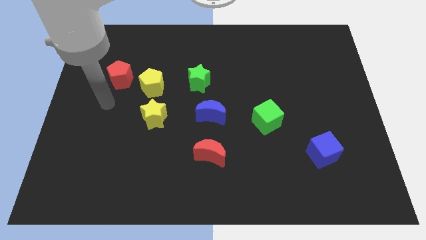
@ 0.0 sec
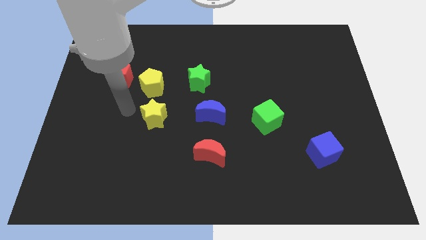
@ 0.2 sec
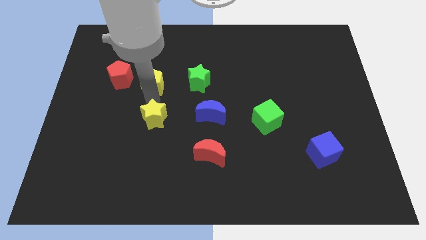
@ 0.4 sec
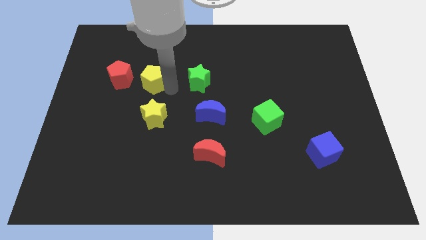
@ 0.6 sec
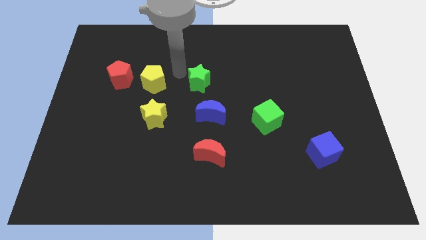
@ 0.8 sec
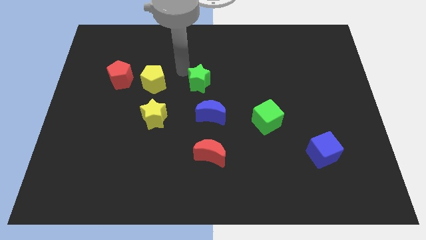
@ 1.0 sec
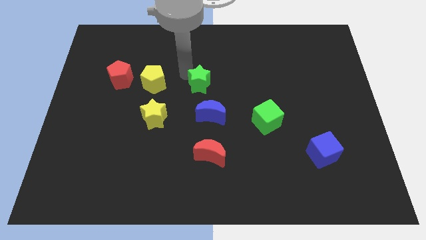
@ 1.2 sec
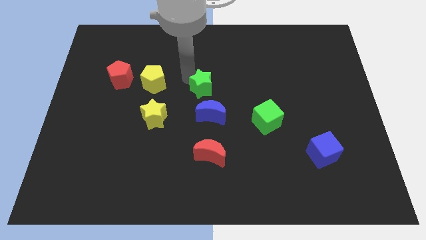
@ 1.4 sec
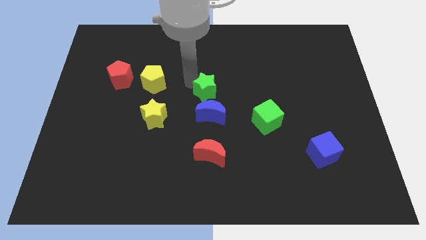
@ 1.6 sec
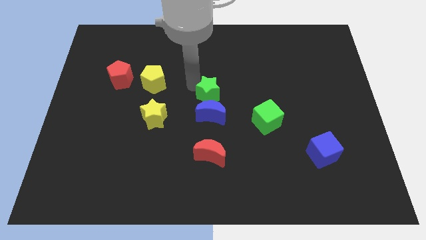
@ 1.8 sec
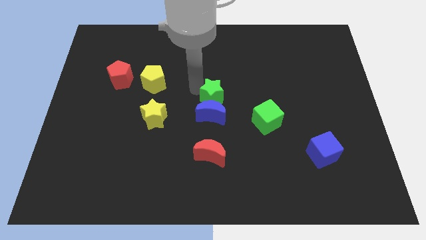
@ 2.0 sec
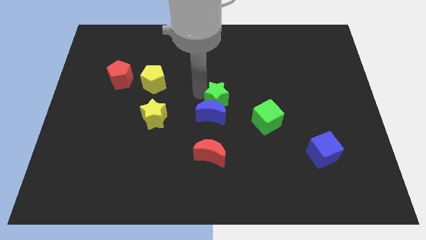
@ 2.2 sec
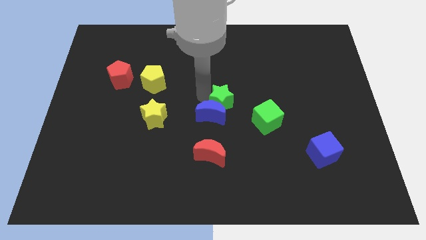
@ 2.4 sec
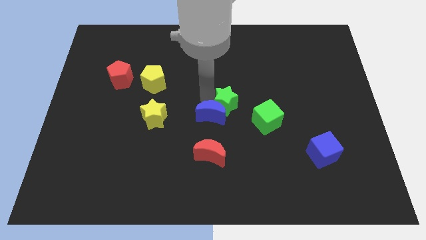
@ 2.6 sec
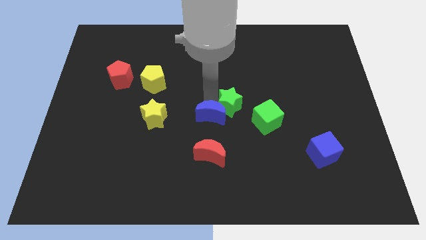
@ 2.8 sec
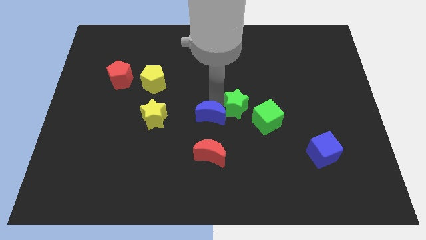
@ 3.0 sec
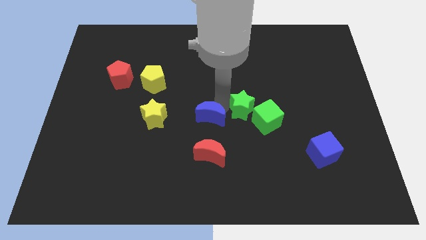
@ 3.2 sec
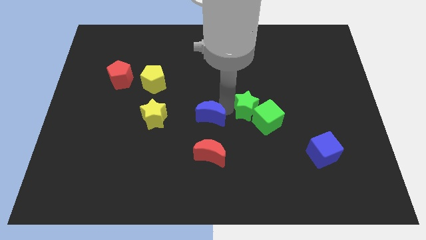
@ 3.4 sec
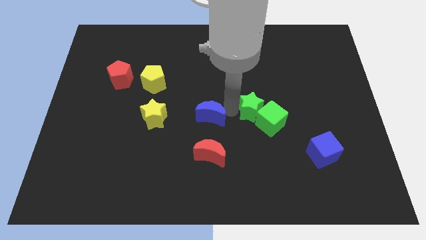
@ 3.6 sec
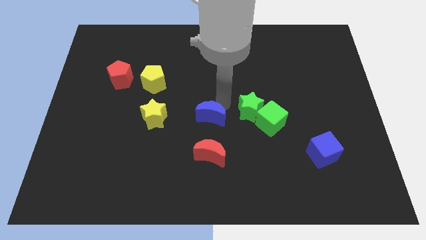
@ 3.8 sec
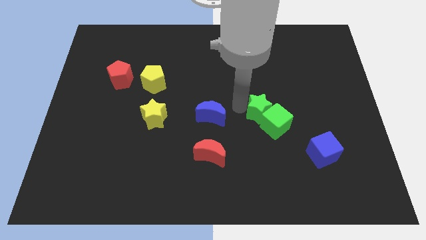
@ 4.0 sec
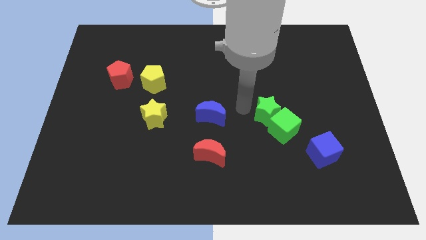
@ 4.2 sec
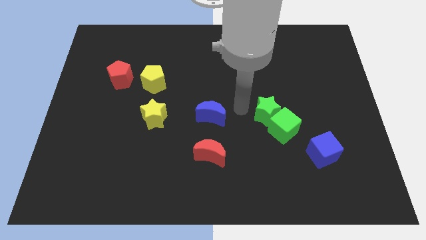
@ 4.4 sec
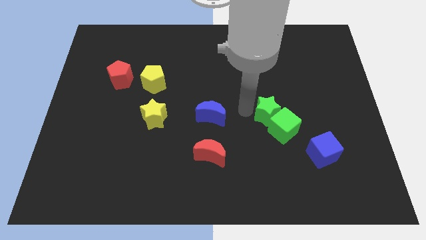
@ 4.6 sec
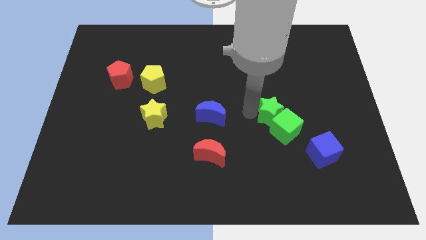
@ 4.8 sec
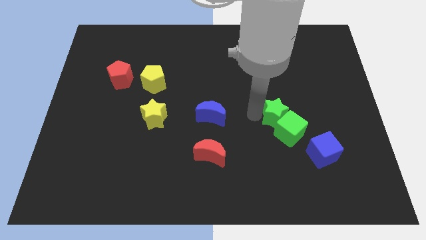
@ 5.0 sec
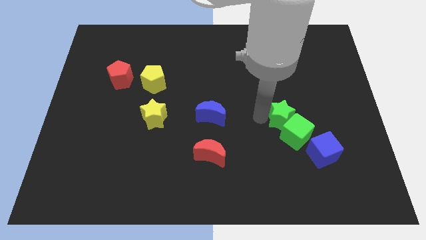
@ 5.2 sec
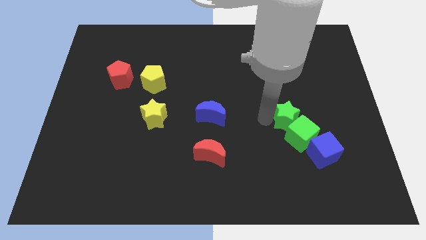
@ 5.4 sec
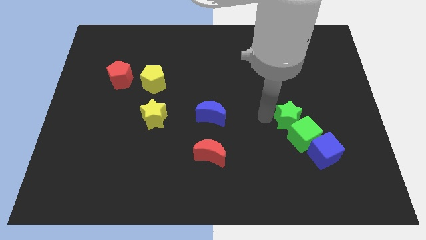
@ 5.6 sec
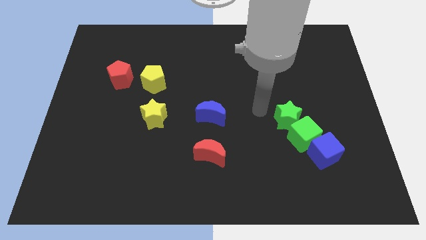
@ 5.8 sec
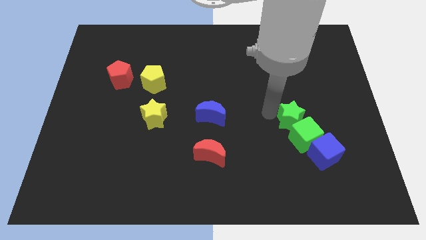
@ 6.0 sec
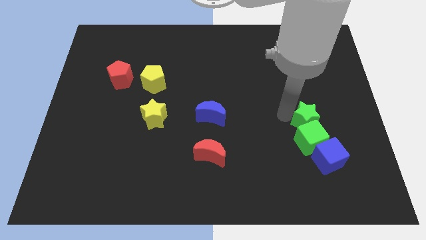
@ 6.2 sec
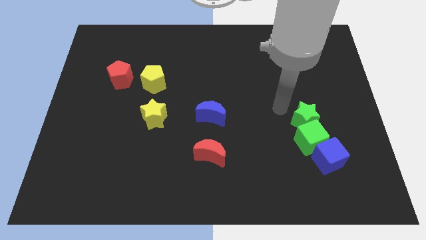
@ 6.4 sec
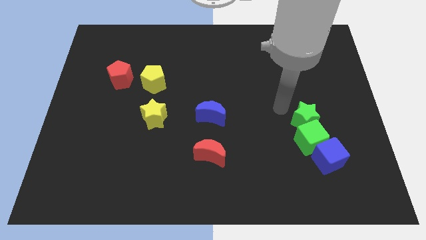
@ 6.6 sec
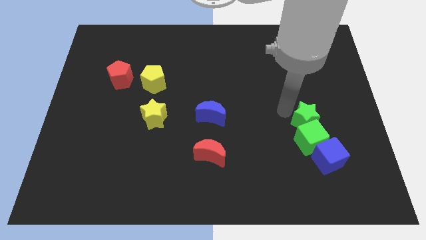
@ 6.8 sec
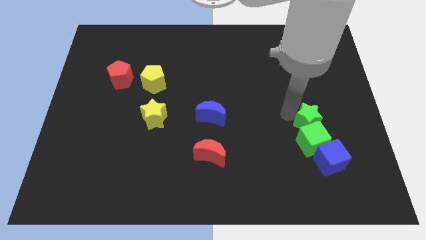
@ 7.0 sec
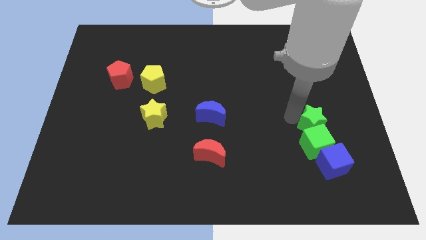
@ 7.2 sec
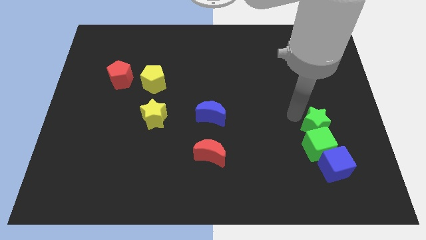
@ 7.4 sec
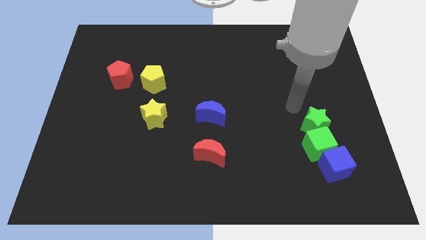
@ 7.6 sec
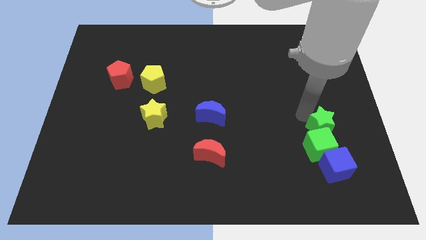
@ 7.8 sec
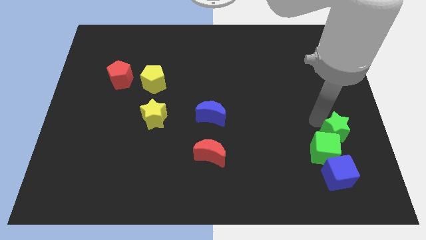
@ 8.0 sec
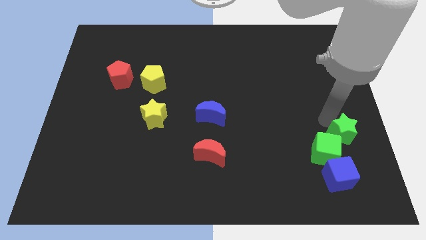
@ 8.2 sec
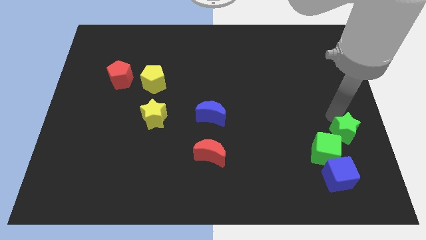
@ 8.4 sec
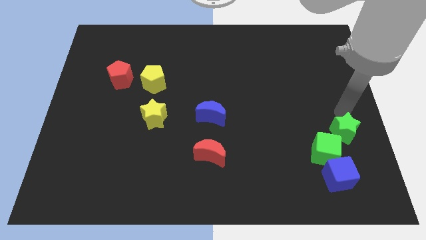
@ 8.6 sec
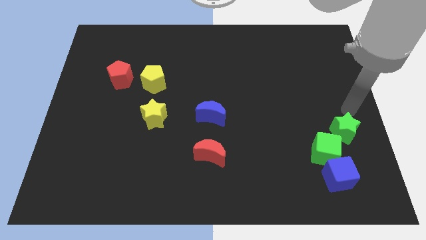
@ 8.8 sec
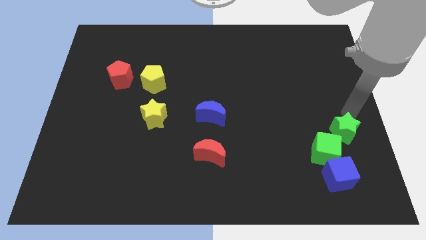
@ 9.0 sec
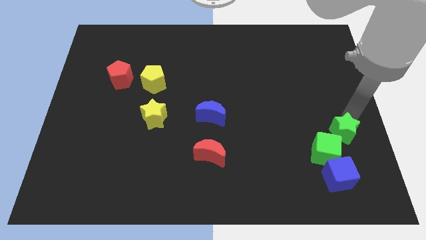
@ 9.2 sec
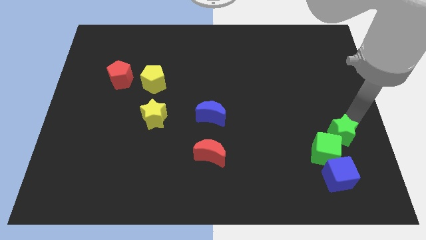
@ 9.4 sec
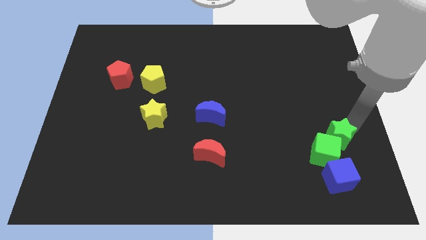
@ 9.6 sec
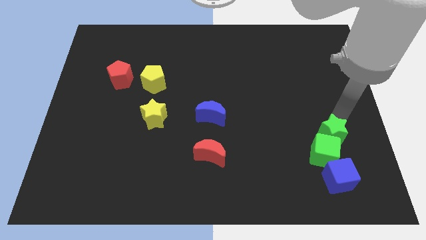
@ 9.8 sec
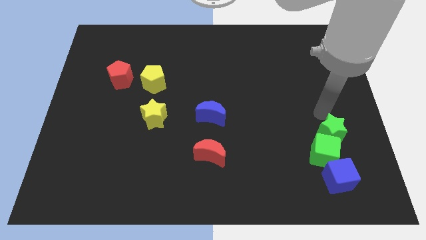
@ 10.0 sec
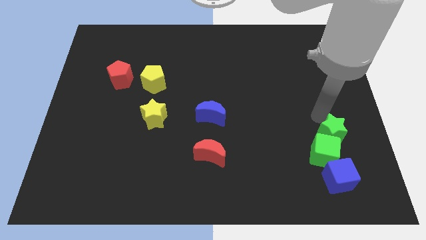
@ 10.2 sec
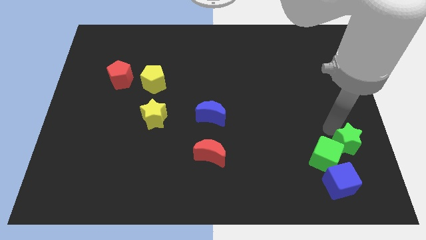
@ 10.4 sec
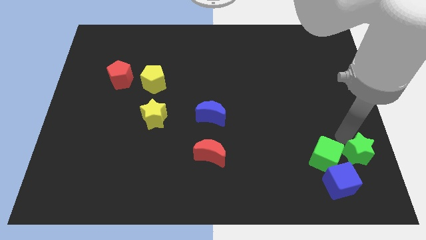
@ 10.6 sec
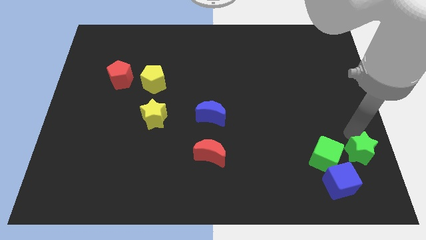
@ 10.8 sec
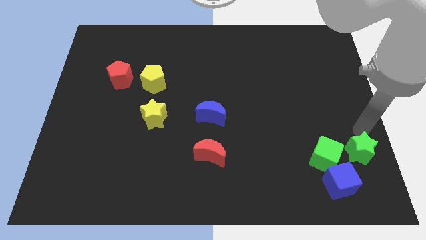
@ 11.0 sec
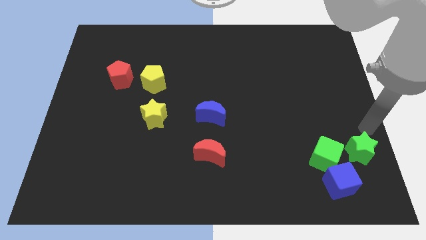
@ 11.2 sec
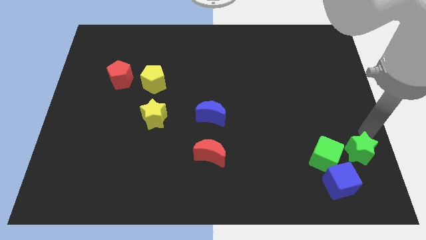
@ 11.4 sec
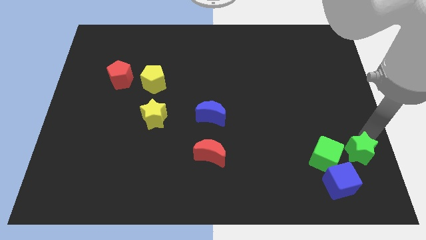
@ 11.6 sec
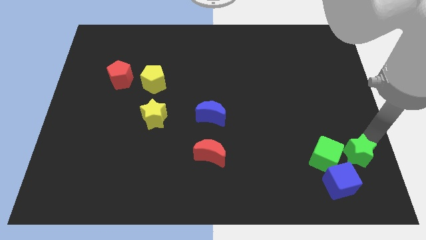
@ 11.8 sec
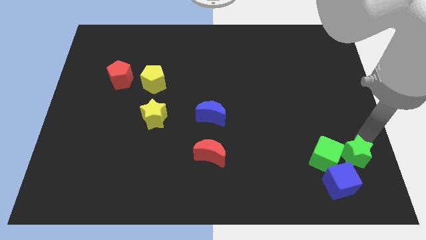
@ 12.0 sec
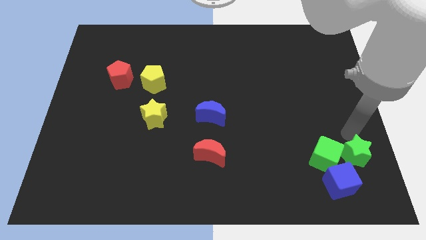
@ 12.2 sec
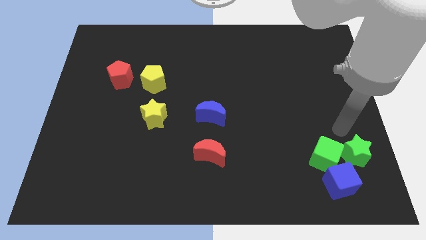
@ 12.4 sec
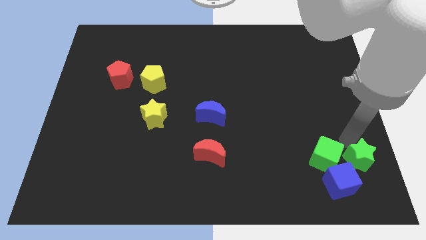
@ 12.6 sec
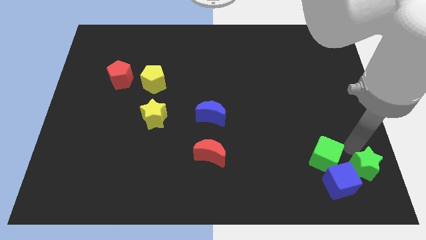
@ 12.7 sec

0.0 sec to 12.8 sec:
push the green star to the bottom right of the board
